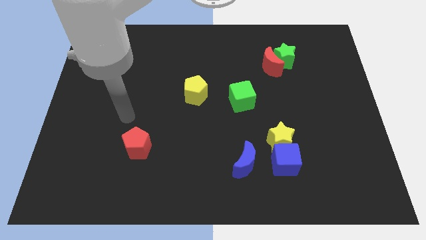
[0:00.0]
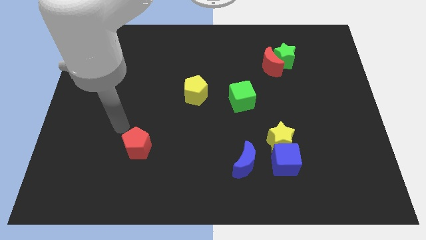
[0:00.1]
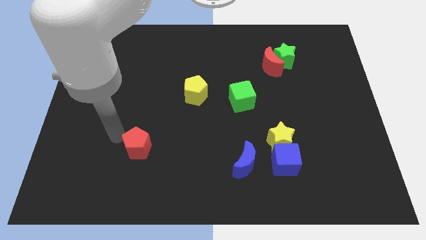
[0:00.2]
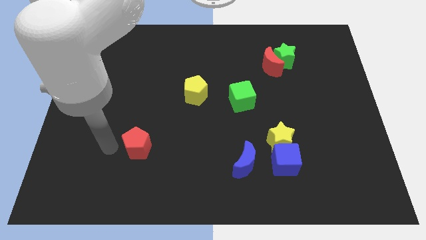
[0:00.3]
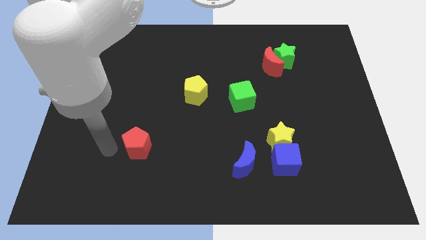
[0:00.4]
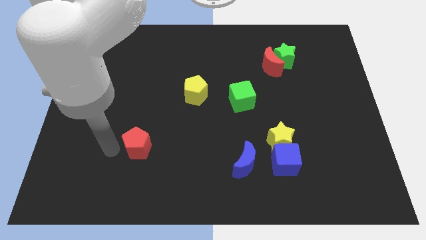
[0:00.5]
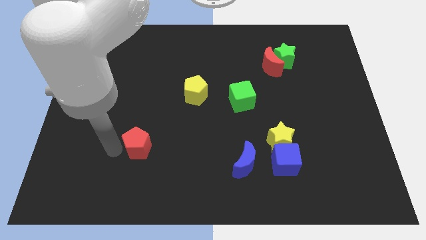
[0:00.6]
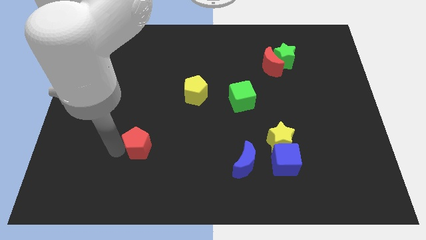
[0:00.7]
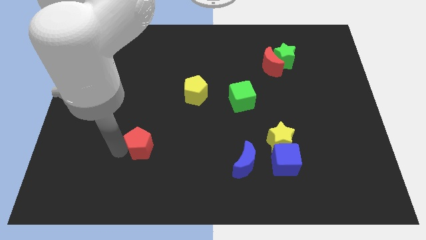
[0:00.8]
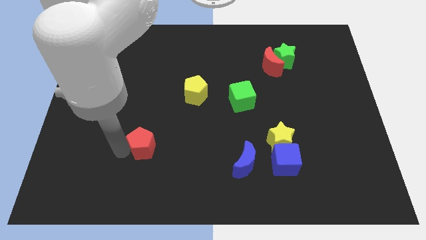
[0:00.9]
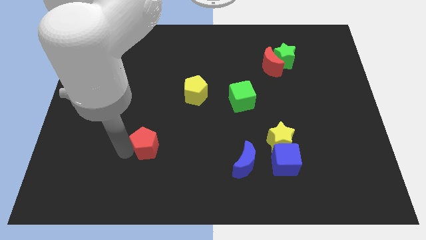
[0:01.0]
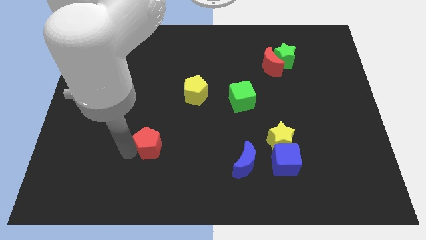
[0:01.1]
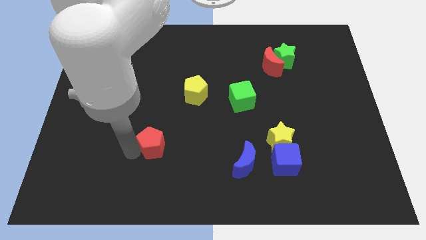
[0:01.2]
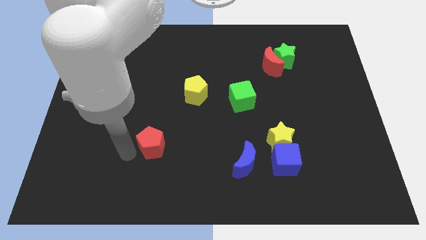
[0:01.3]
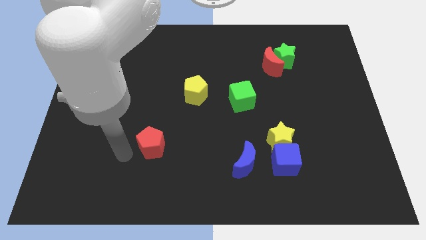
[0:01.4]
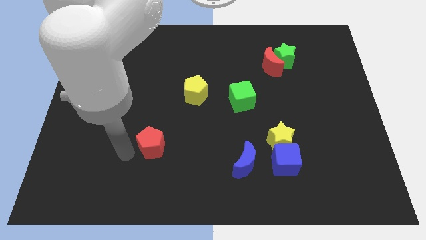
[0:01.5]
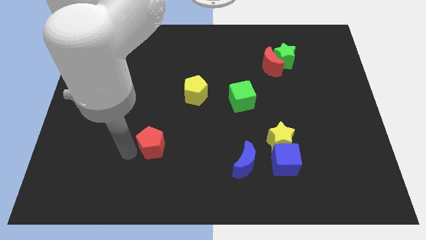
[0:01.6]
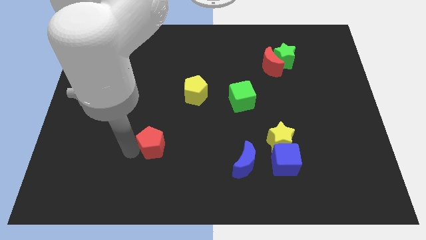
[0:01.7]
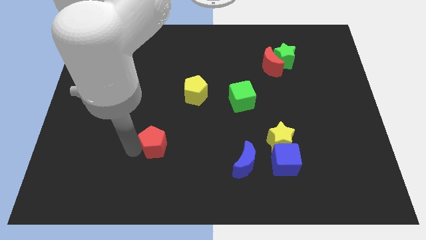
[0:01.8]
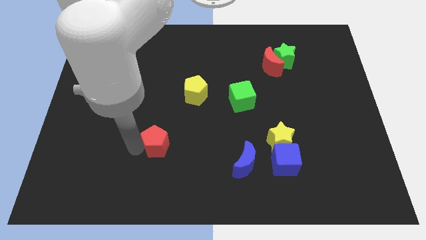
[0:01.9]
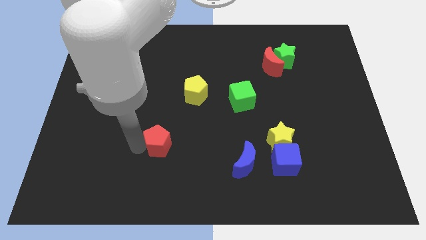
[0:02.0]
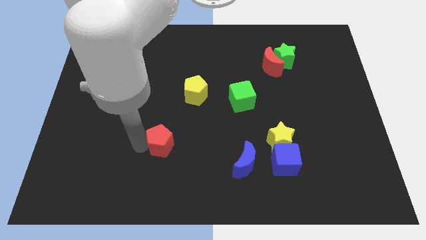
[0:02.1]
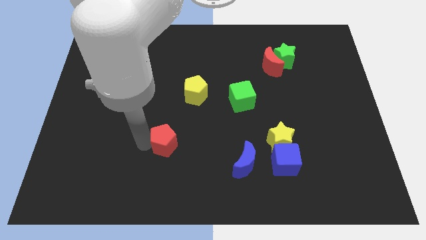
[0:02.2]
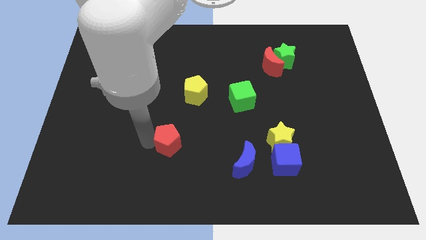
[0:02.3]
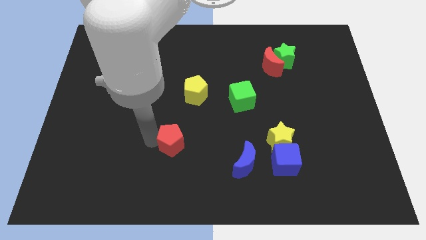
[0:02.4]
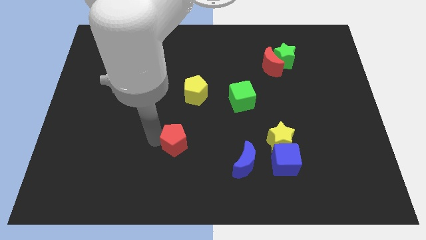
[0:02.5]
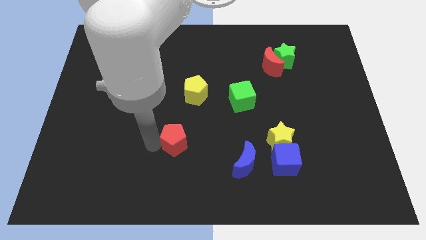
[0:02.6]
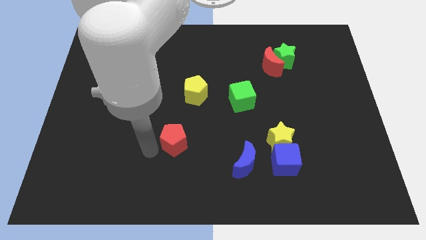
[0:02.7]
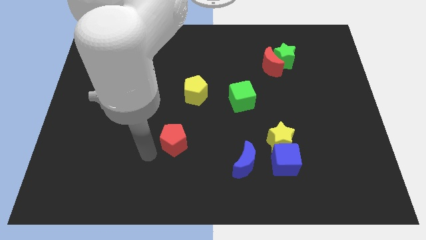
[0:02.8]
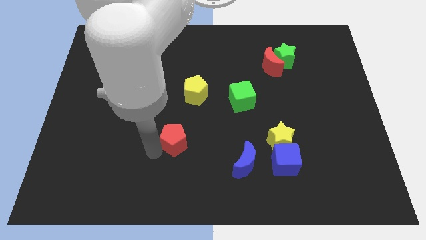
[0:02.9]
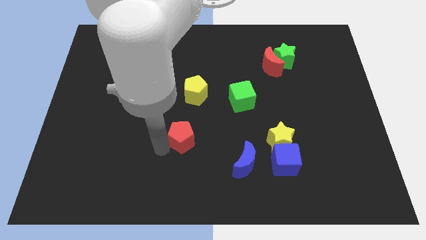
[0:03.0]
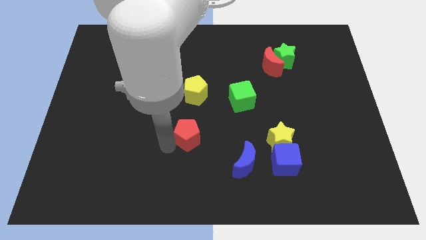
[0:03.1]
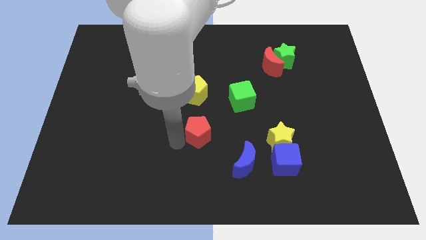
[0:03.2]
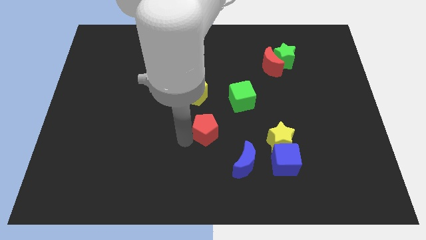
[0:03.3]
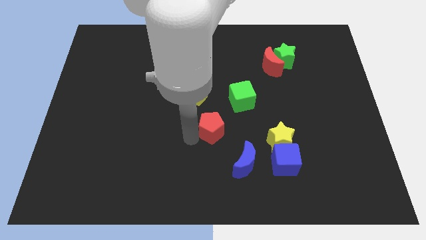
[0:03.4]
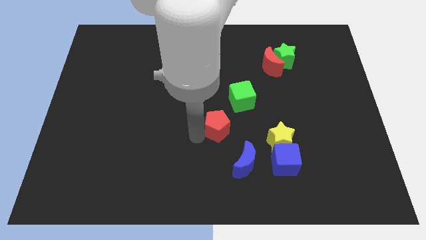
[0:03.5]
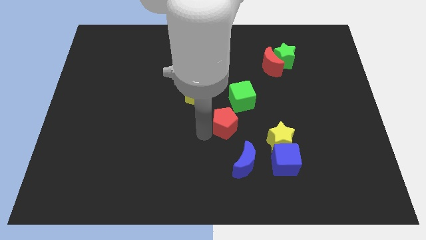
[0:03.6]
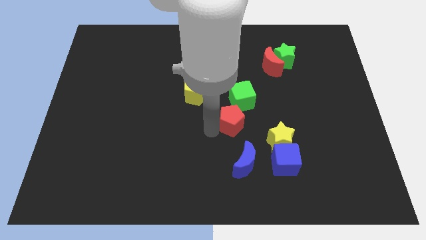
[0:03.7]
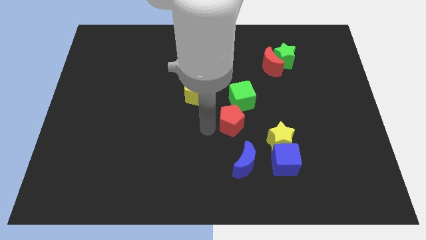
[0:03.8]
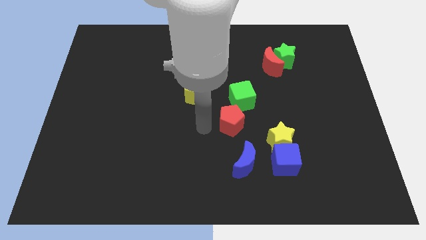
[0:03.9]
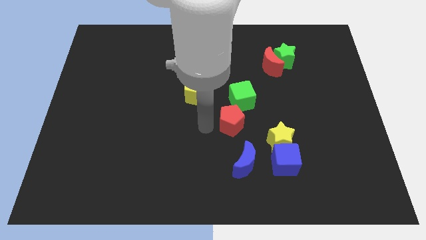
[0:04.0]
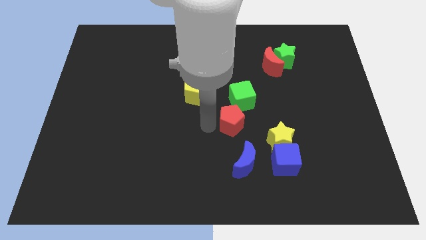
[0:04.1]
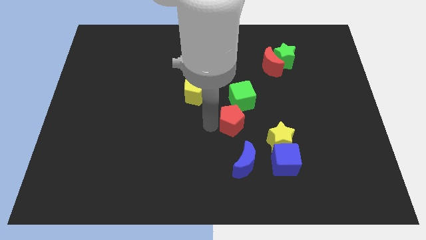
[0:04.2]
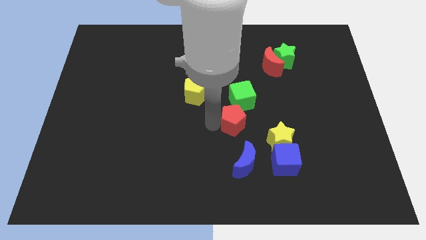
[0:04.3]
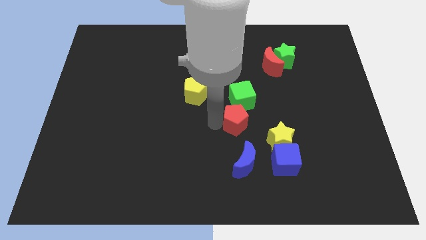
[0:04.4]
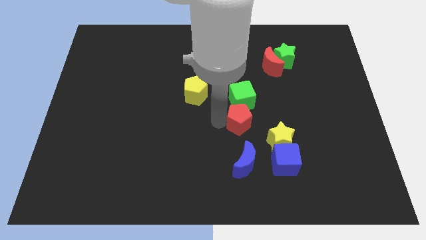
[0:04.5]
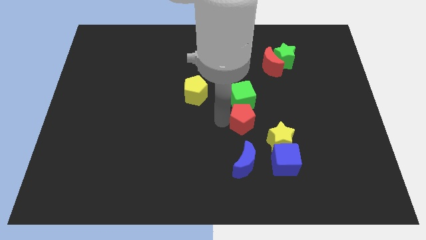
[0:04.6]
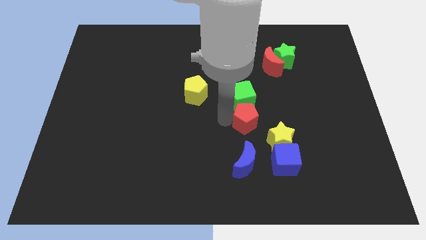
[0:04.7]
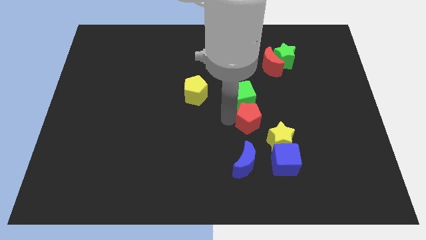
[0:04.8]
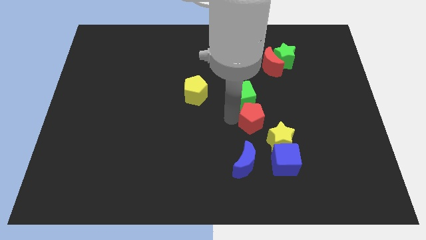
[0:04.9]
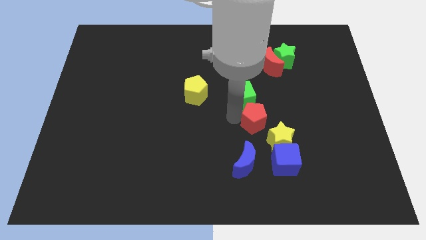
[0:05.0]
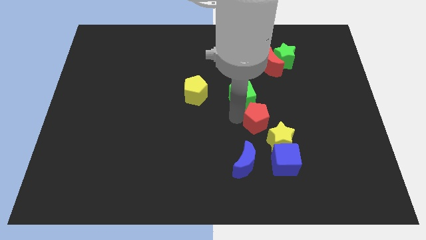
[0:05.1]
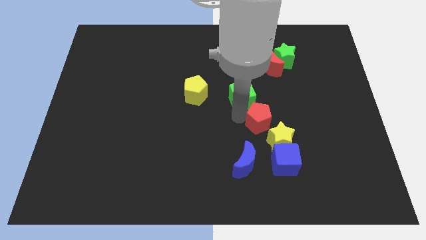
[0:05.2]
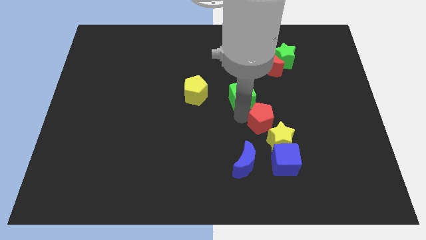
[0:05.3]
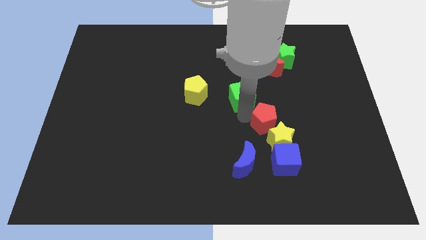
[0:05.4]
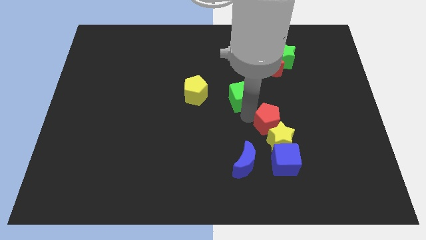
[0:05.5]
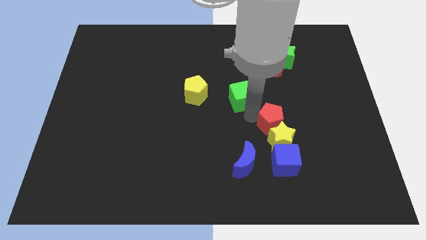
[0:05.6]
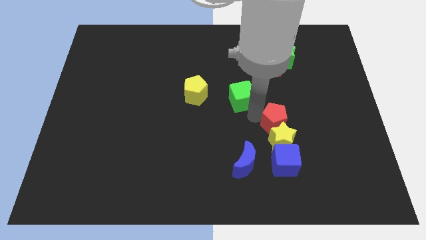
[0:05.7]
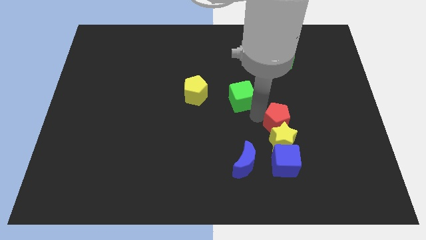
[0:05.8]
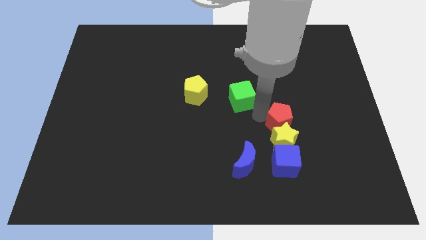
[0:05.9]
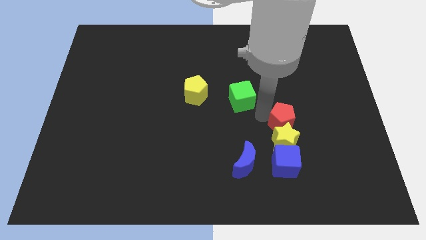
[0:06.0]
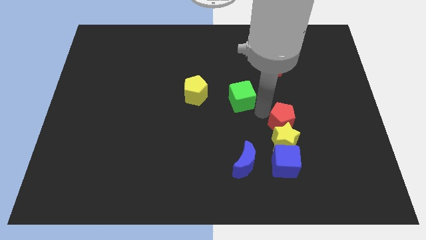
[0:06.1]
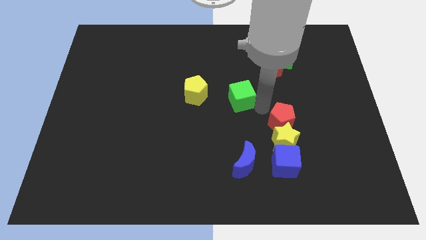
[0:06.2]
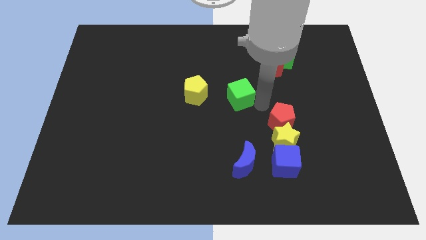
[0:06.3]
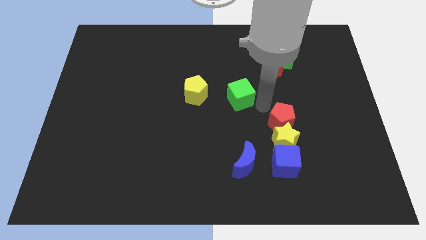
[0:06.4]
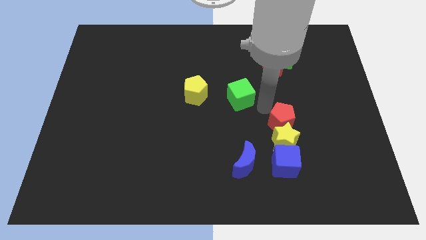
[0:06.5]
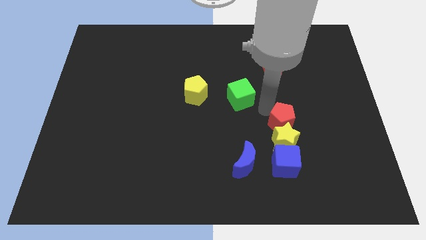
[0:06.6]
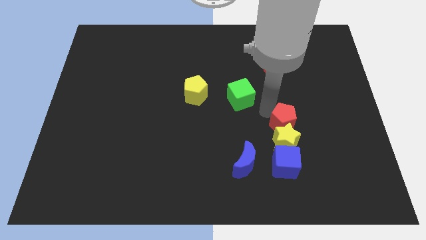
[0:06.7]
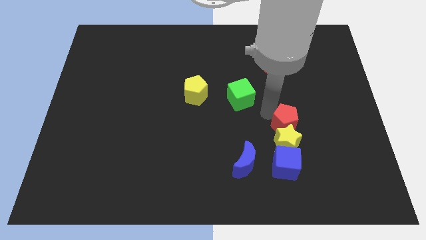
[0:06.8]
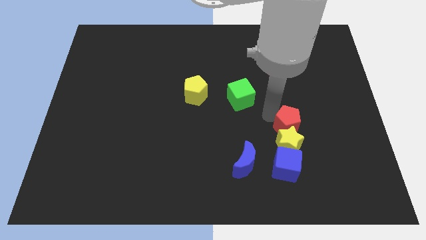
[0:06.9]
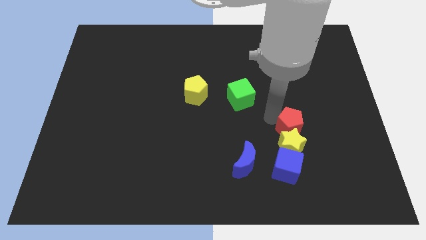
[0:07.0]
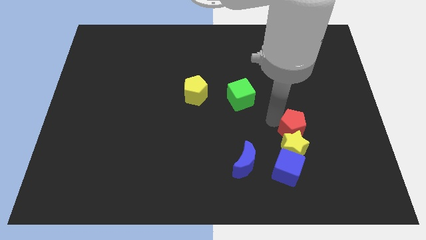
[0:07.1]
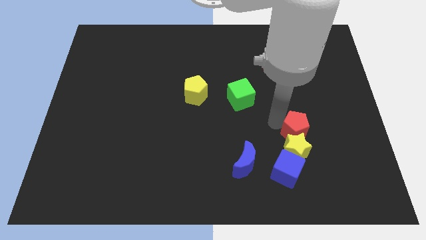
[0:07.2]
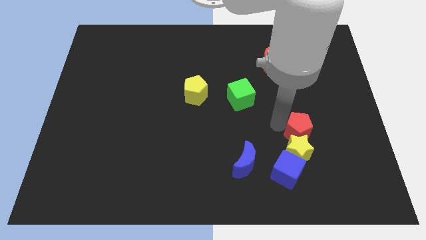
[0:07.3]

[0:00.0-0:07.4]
slide the red pentagon to the top right of the blue cube
